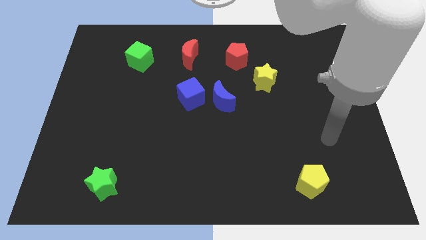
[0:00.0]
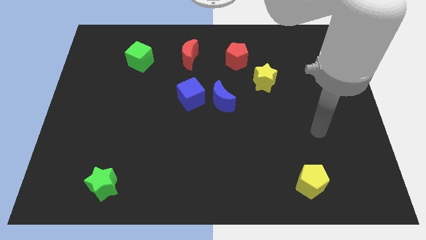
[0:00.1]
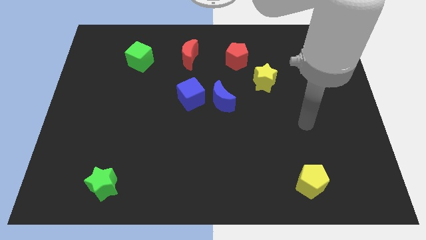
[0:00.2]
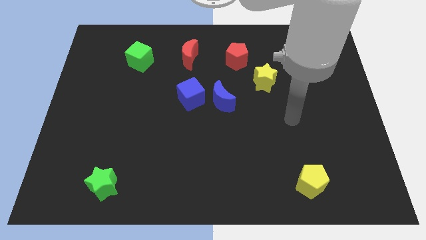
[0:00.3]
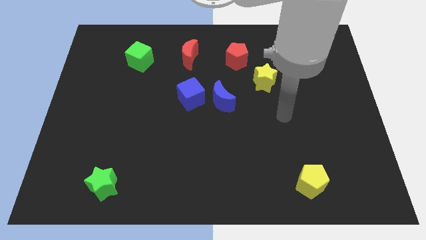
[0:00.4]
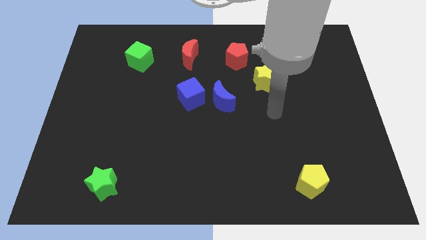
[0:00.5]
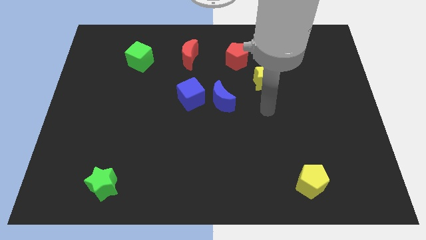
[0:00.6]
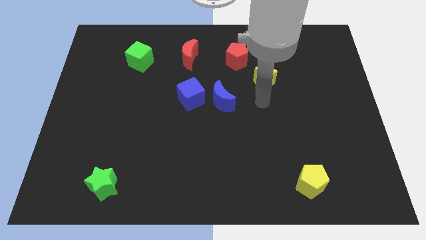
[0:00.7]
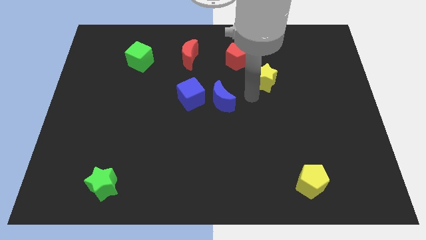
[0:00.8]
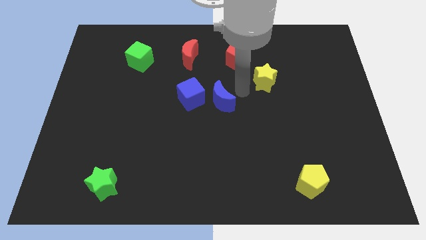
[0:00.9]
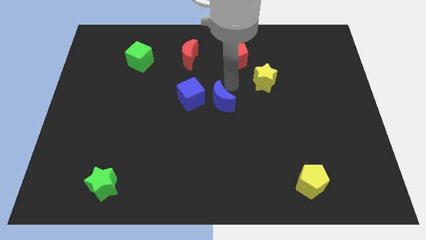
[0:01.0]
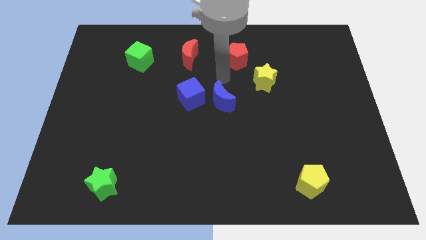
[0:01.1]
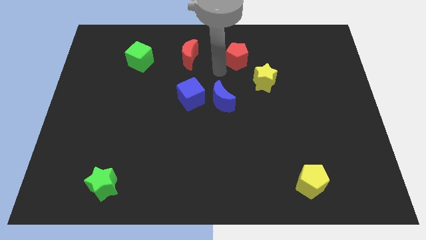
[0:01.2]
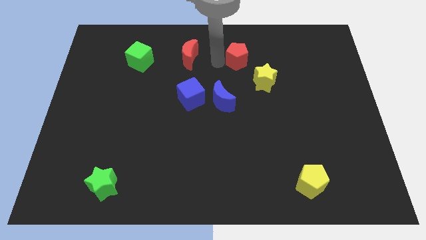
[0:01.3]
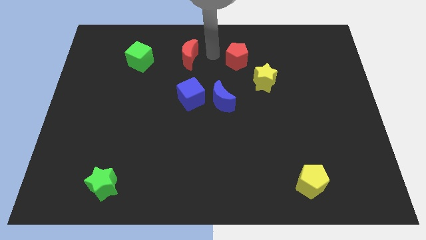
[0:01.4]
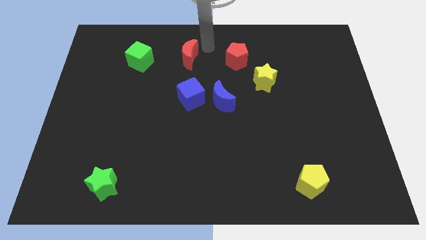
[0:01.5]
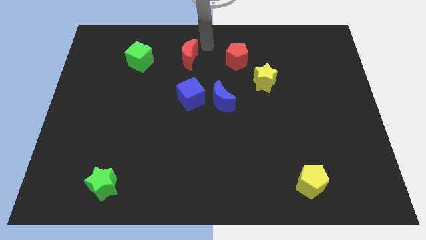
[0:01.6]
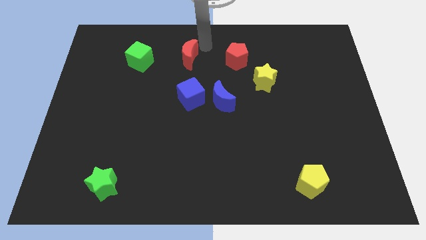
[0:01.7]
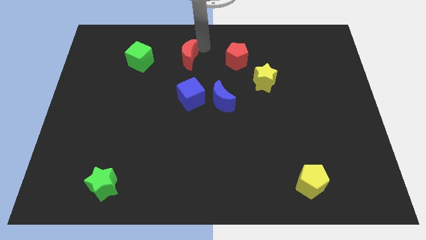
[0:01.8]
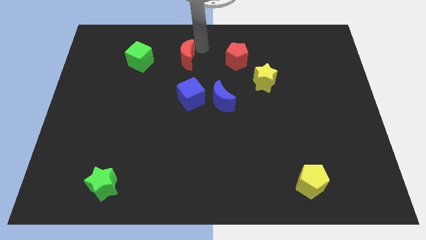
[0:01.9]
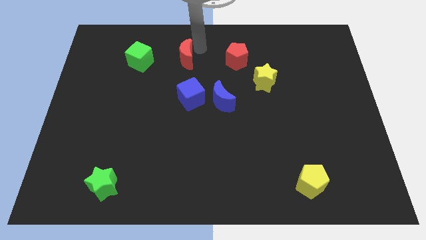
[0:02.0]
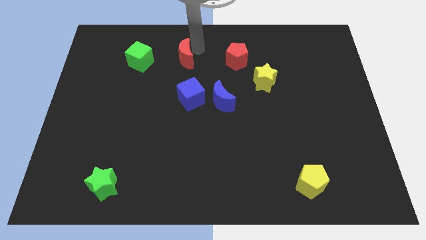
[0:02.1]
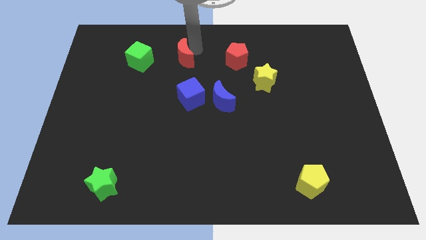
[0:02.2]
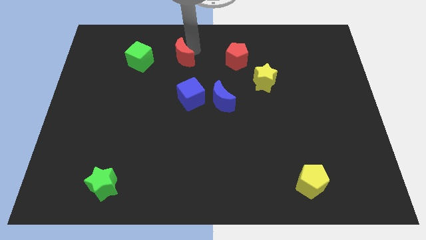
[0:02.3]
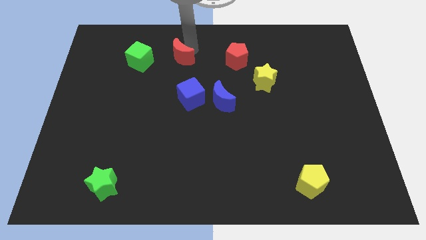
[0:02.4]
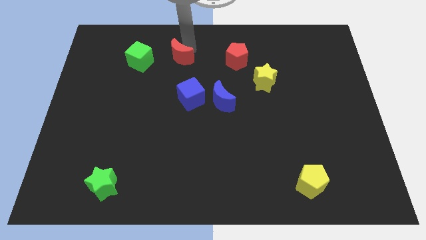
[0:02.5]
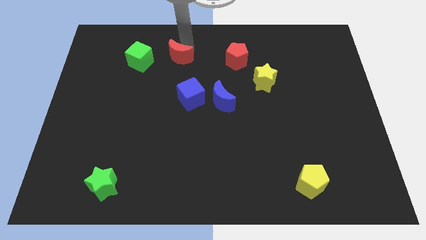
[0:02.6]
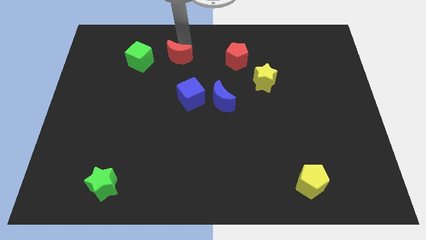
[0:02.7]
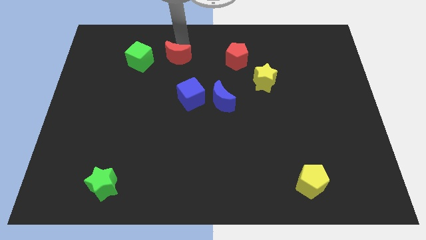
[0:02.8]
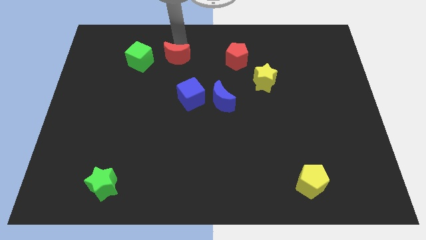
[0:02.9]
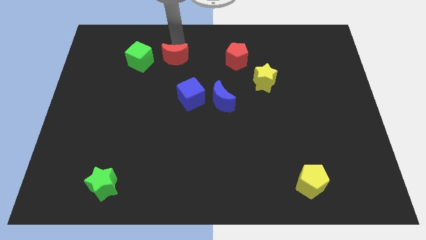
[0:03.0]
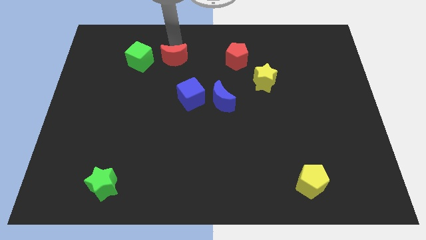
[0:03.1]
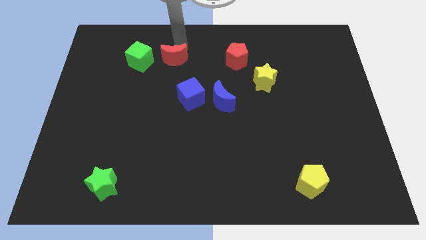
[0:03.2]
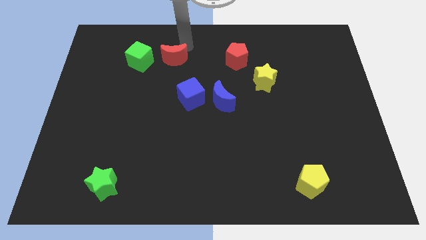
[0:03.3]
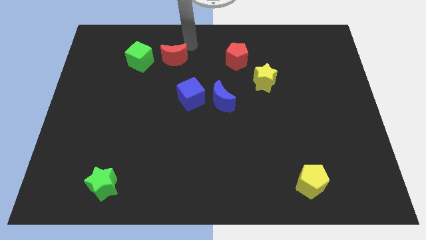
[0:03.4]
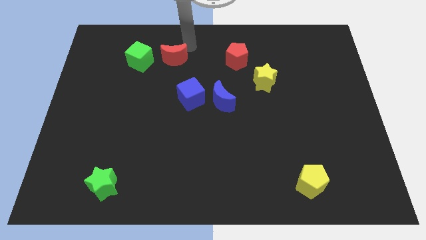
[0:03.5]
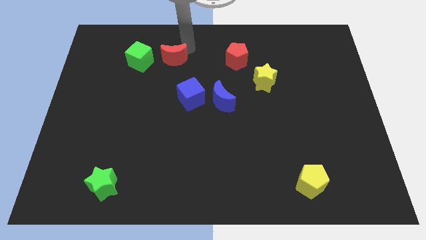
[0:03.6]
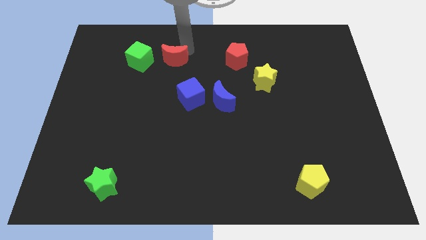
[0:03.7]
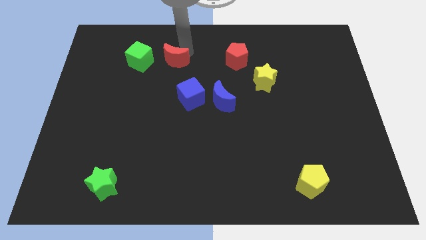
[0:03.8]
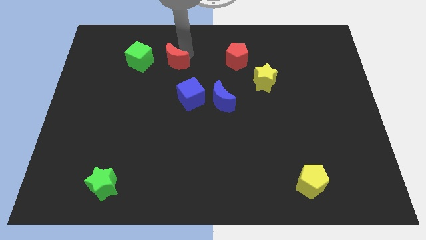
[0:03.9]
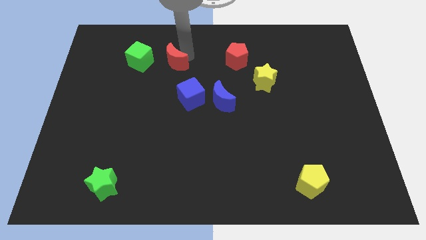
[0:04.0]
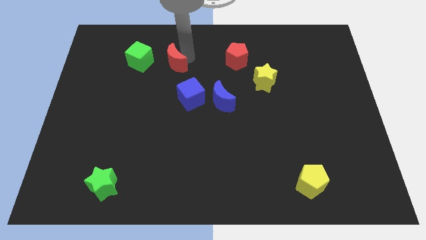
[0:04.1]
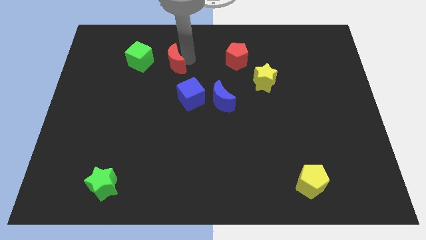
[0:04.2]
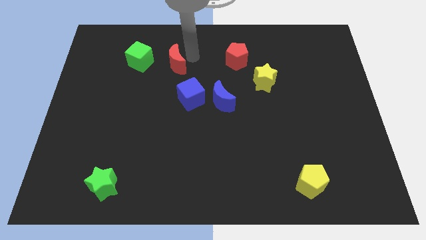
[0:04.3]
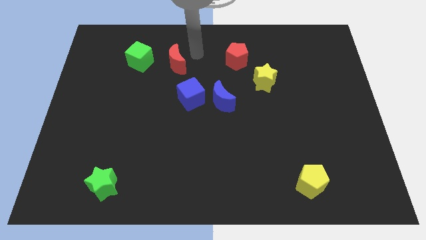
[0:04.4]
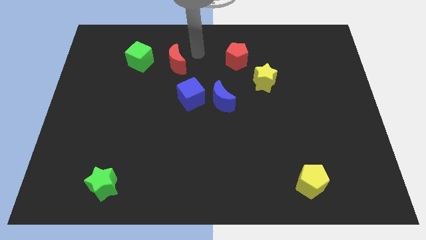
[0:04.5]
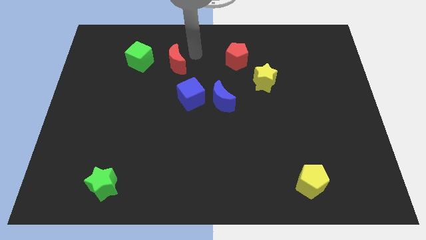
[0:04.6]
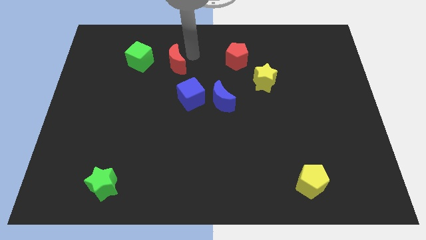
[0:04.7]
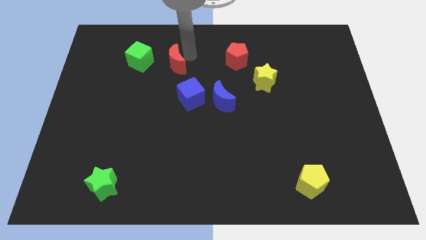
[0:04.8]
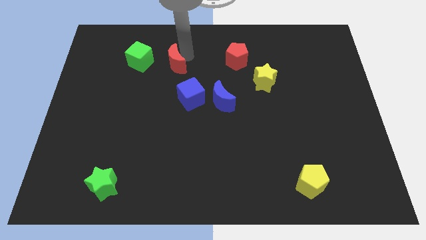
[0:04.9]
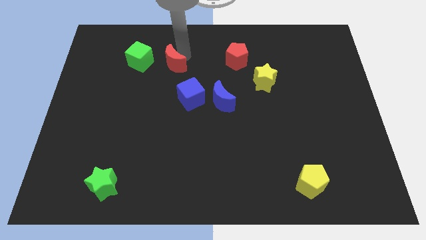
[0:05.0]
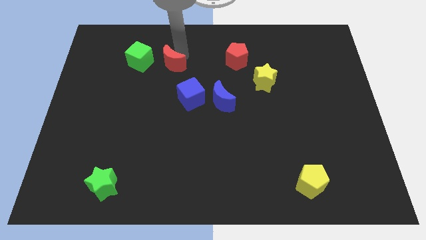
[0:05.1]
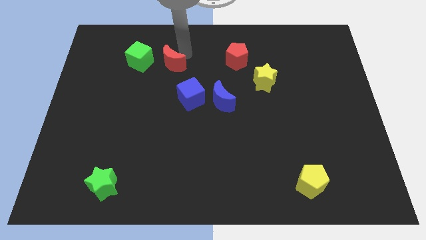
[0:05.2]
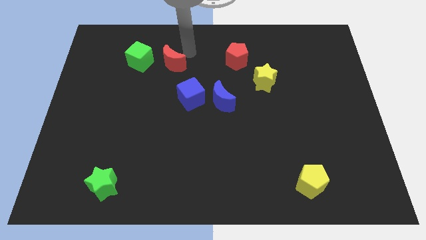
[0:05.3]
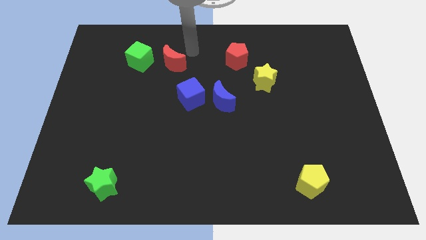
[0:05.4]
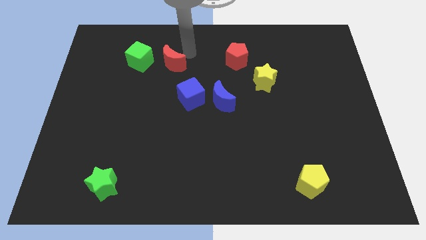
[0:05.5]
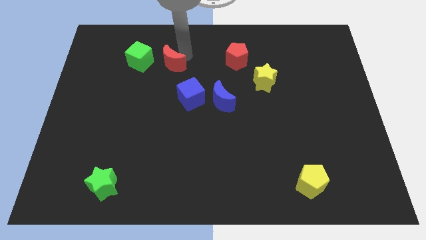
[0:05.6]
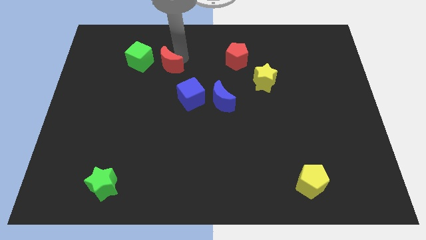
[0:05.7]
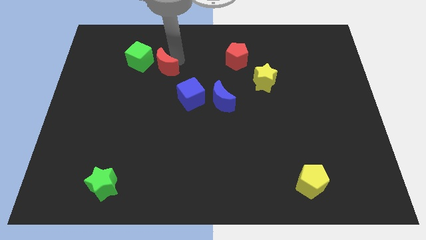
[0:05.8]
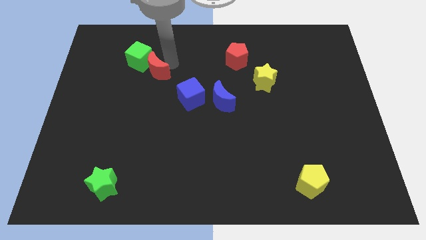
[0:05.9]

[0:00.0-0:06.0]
move the red moon a little down and left

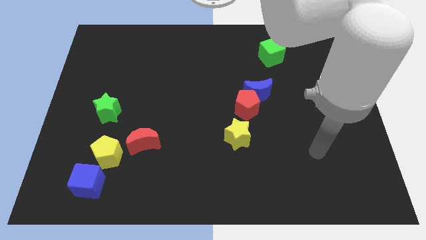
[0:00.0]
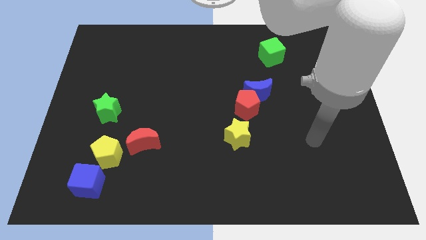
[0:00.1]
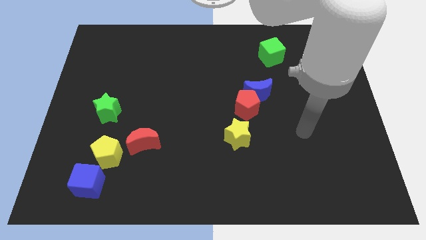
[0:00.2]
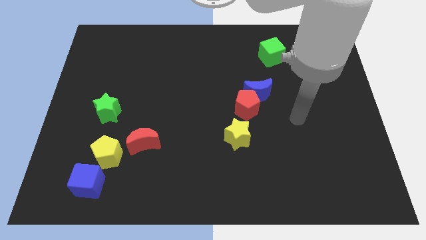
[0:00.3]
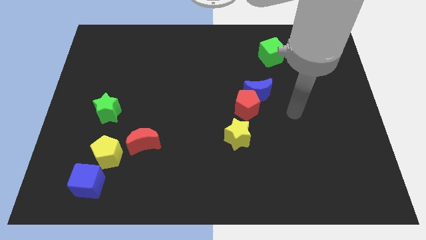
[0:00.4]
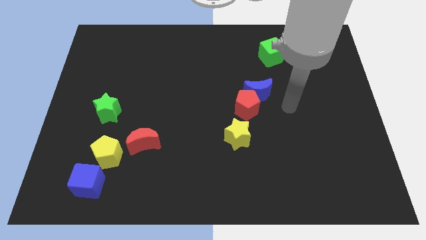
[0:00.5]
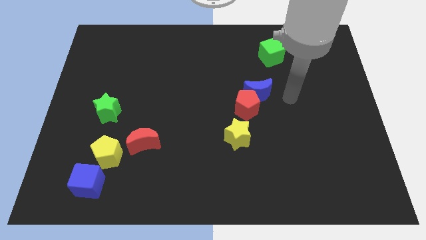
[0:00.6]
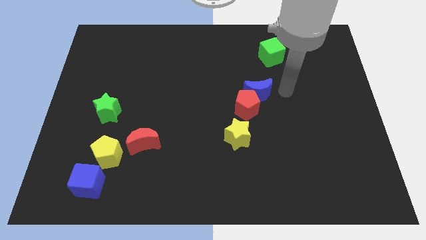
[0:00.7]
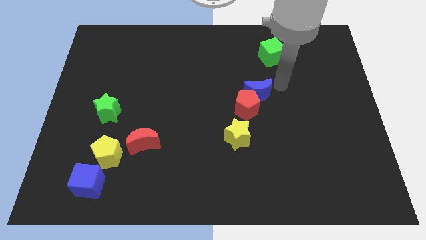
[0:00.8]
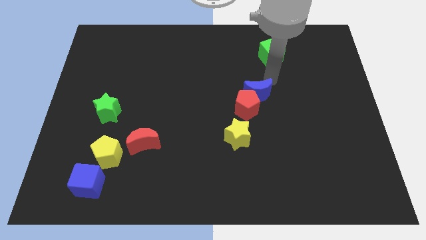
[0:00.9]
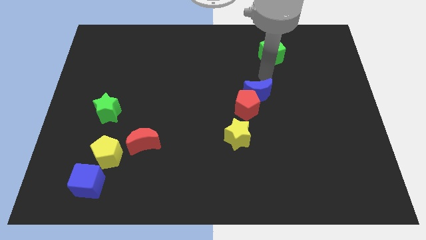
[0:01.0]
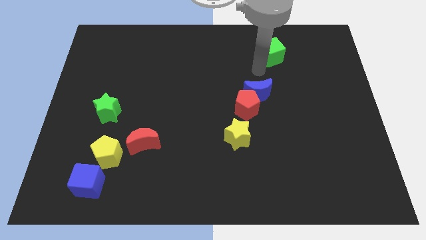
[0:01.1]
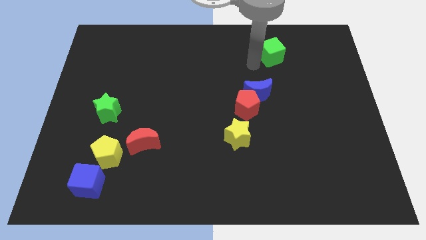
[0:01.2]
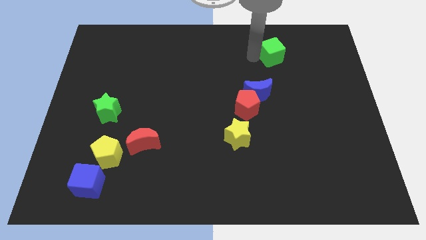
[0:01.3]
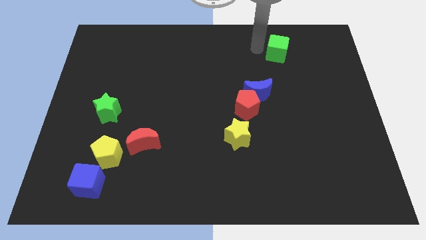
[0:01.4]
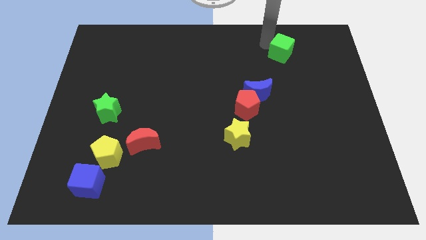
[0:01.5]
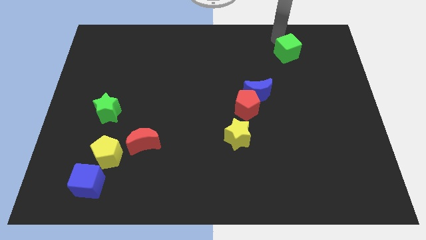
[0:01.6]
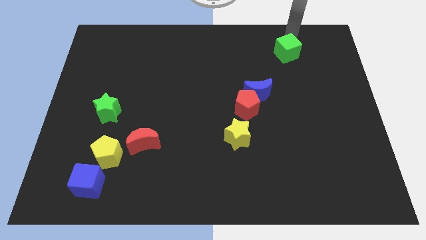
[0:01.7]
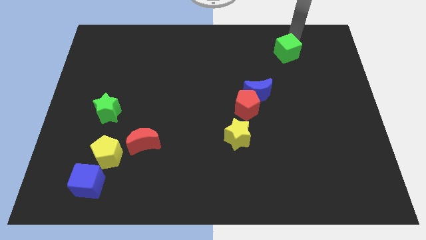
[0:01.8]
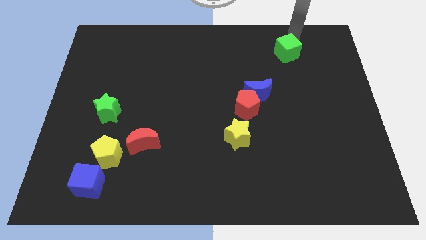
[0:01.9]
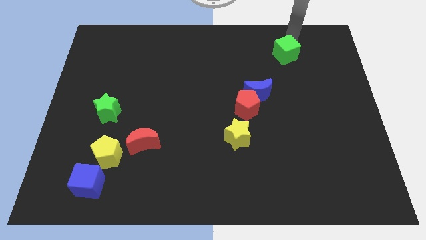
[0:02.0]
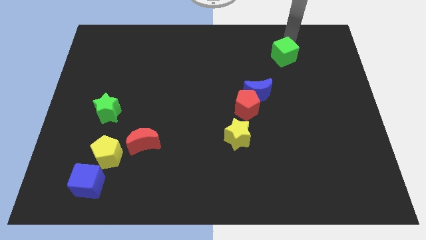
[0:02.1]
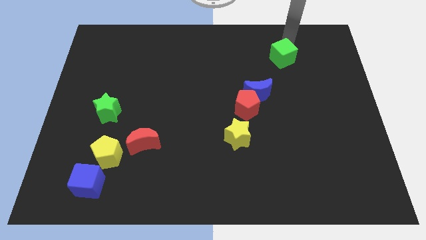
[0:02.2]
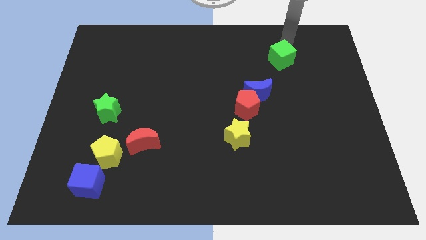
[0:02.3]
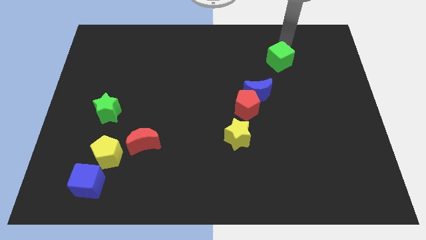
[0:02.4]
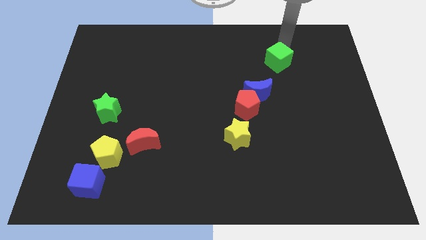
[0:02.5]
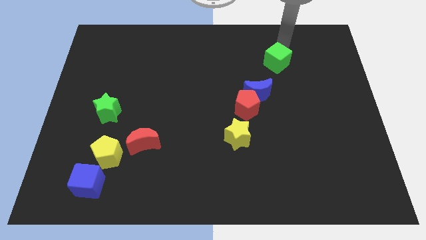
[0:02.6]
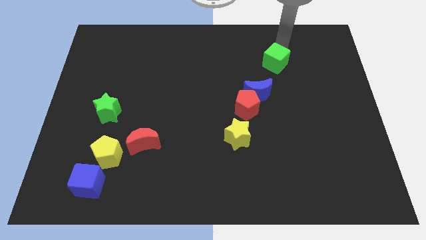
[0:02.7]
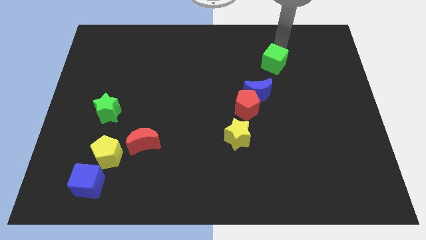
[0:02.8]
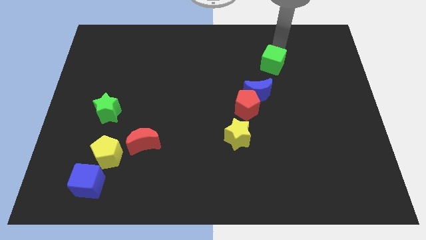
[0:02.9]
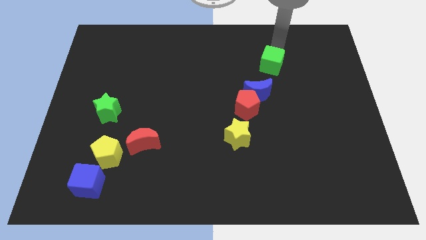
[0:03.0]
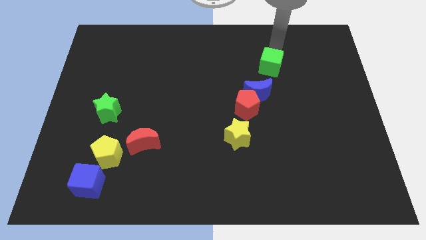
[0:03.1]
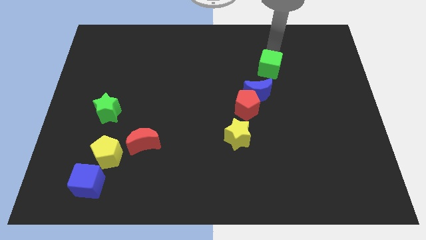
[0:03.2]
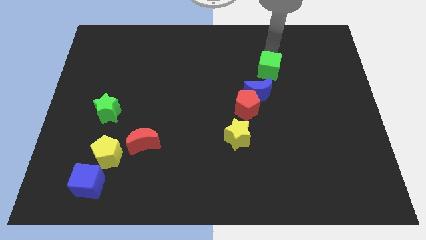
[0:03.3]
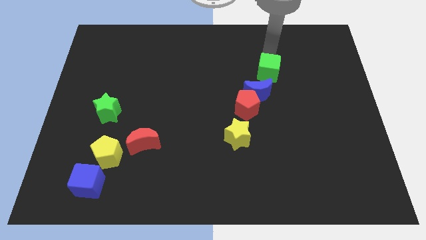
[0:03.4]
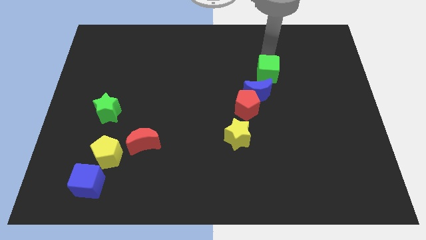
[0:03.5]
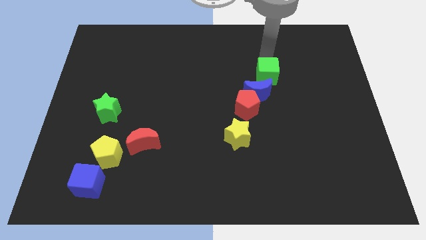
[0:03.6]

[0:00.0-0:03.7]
move the green cube a bit downwards
